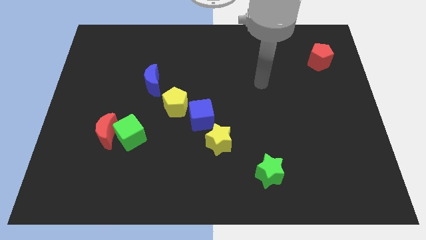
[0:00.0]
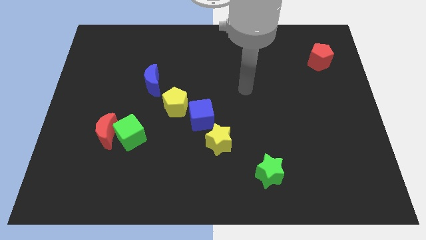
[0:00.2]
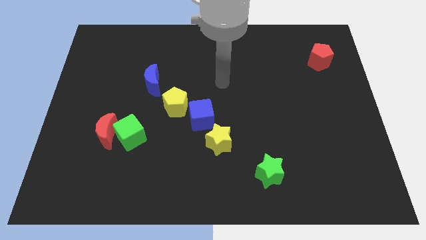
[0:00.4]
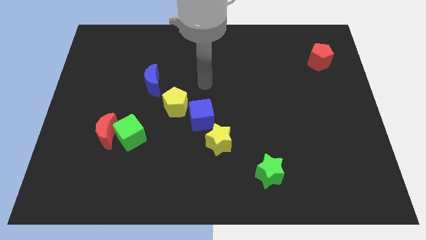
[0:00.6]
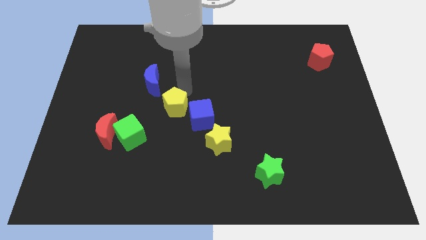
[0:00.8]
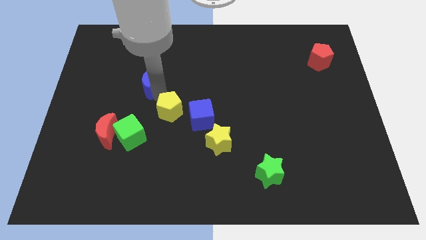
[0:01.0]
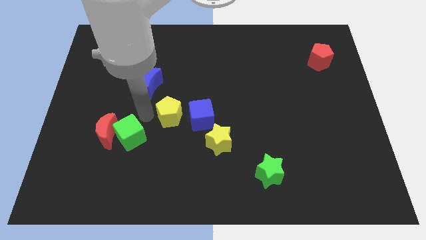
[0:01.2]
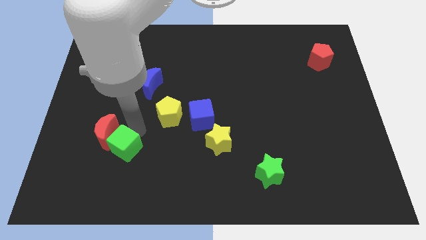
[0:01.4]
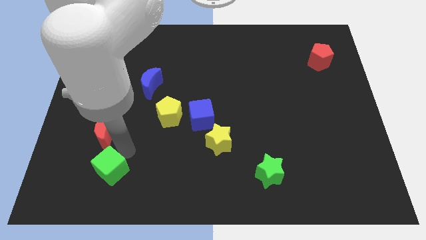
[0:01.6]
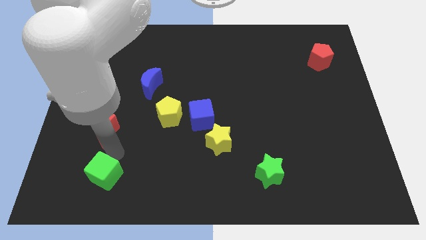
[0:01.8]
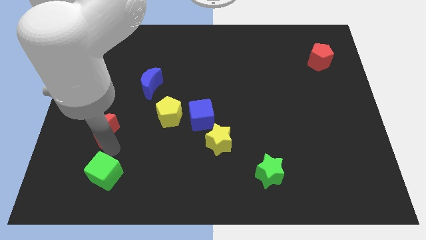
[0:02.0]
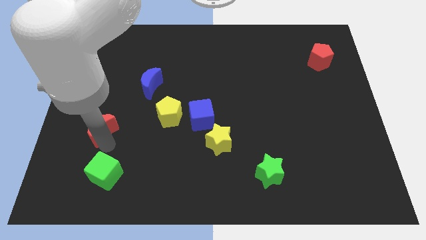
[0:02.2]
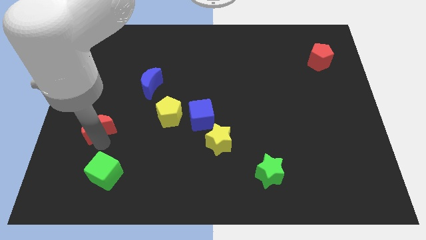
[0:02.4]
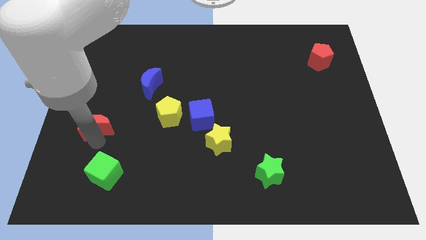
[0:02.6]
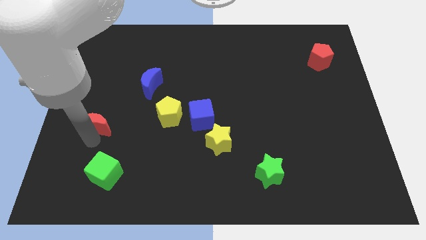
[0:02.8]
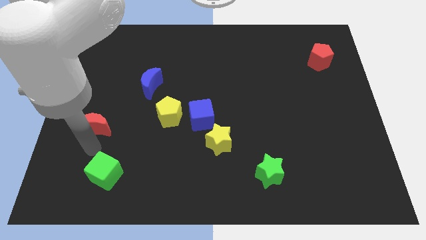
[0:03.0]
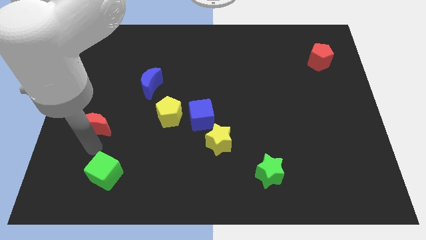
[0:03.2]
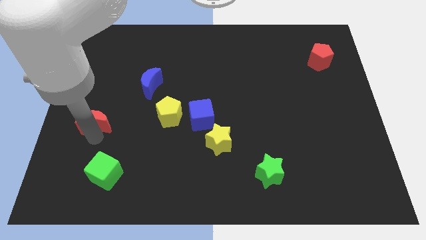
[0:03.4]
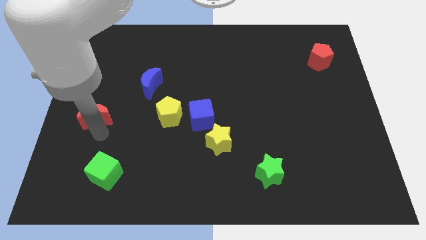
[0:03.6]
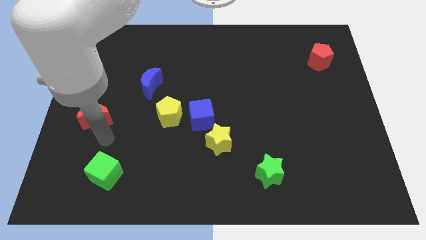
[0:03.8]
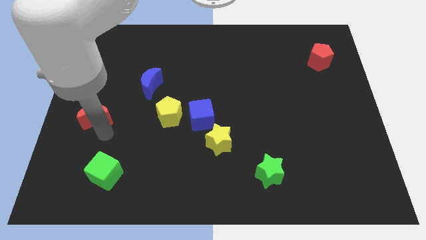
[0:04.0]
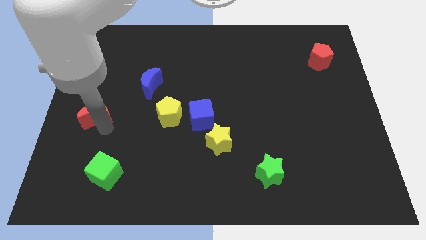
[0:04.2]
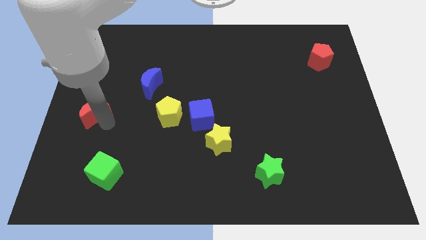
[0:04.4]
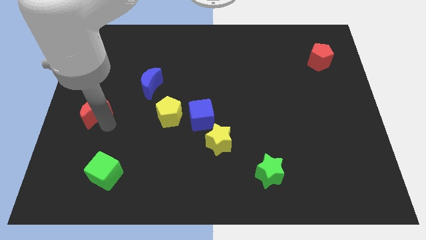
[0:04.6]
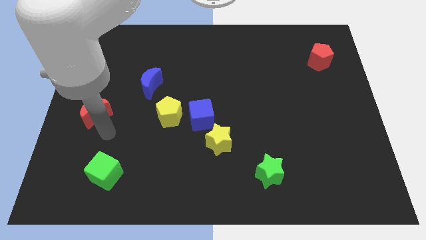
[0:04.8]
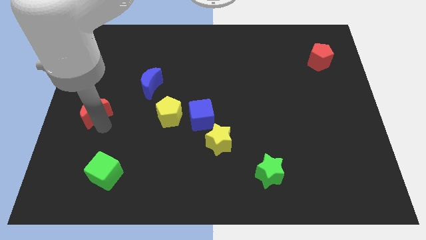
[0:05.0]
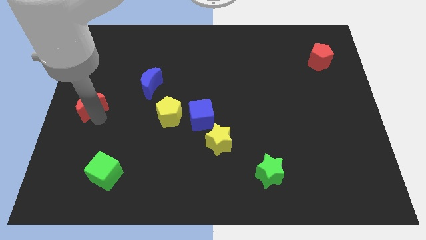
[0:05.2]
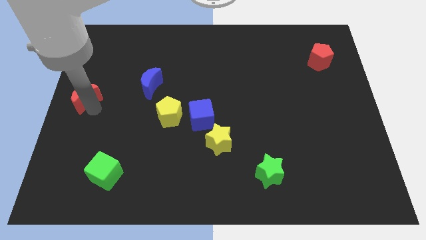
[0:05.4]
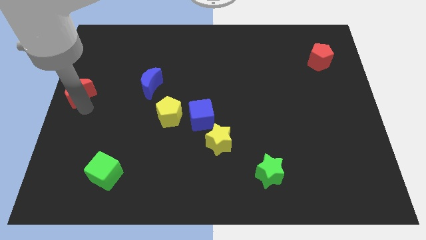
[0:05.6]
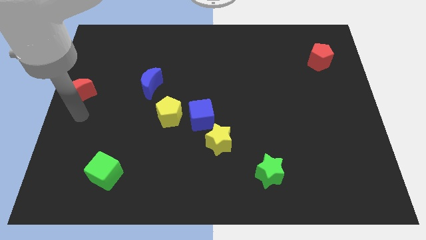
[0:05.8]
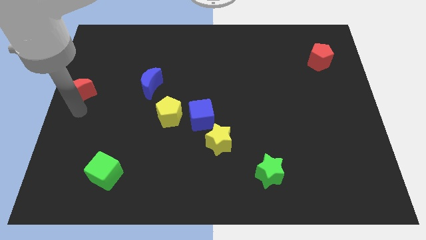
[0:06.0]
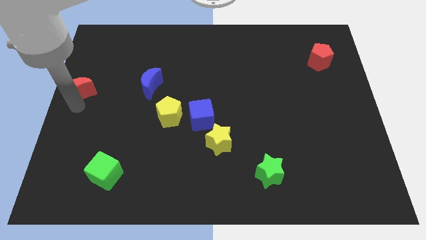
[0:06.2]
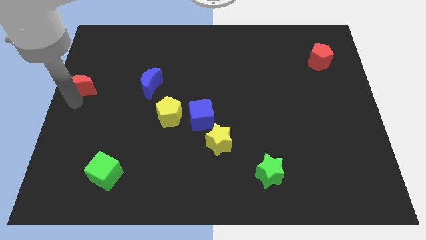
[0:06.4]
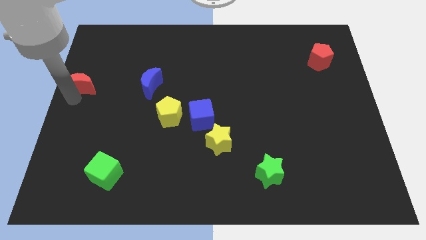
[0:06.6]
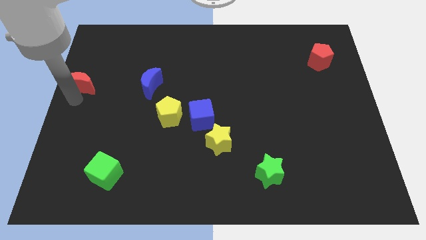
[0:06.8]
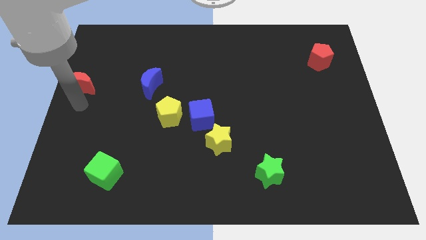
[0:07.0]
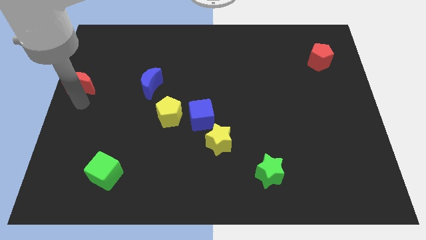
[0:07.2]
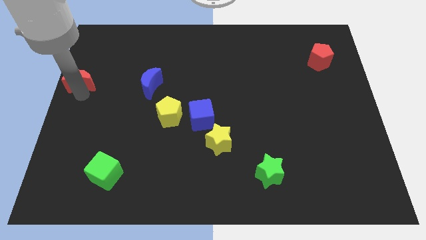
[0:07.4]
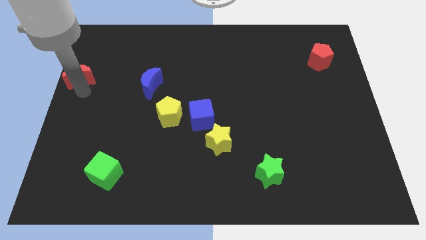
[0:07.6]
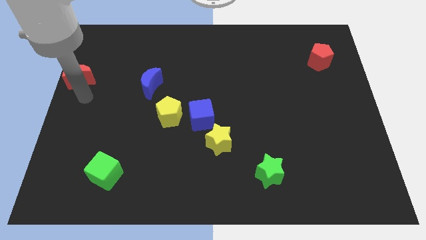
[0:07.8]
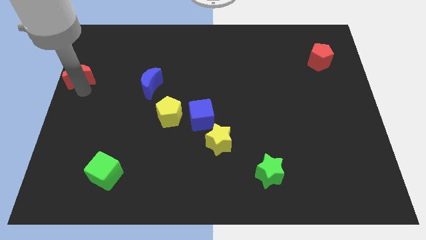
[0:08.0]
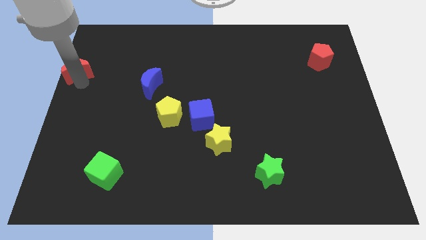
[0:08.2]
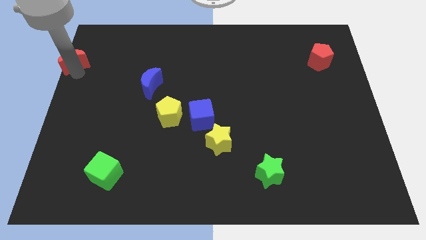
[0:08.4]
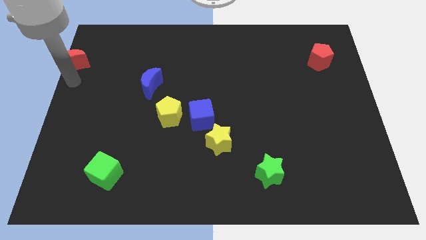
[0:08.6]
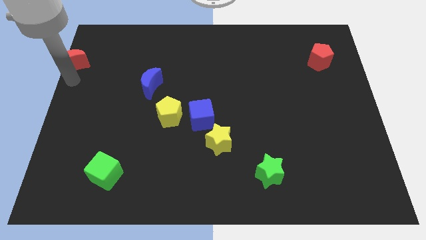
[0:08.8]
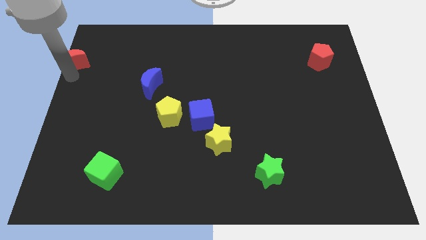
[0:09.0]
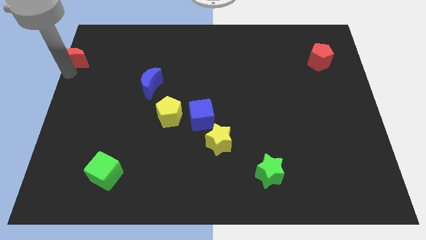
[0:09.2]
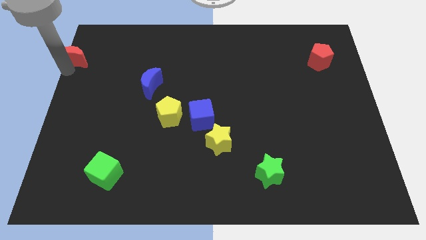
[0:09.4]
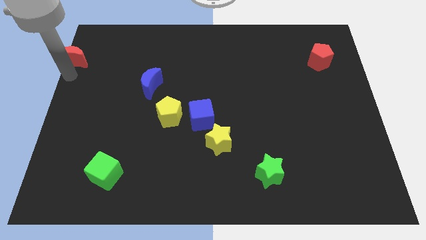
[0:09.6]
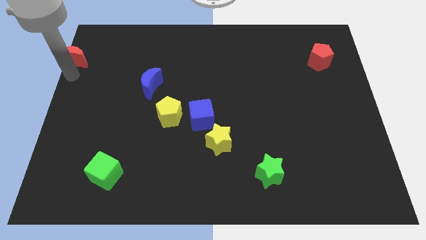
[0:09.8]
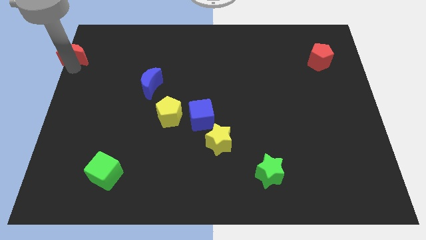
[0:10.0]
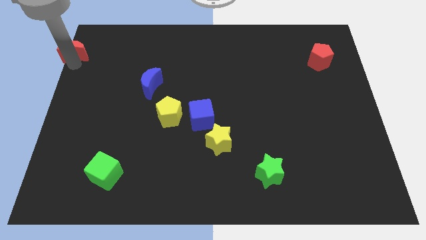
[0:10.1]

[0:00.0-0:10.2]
put the red moon to the top left of the board
